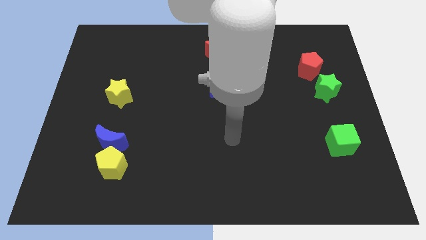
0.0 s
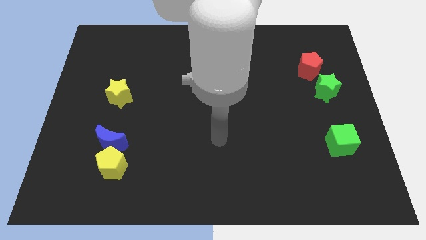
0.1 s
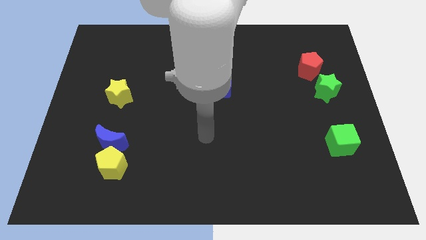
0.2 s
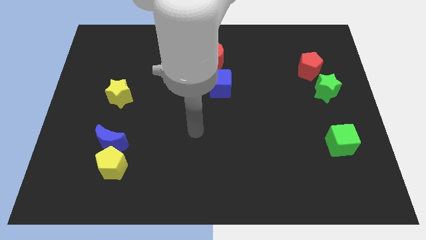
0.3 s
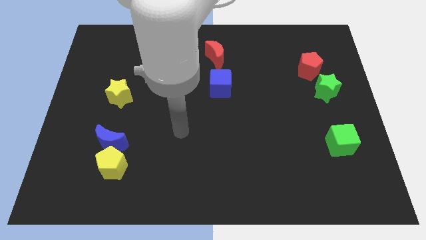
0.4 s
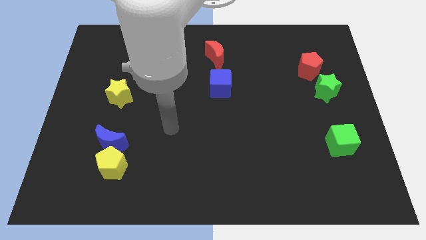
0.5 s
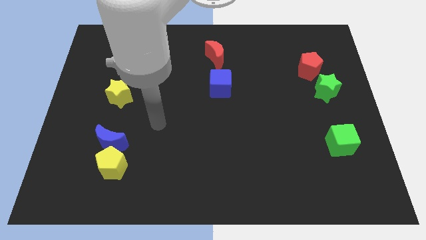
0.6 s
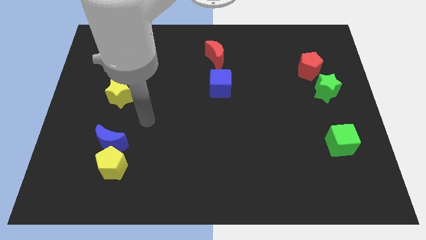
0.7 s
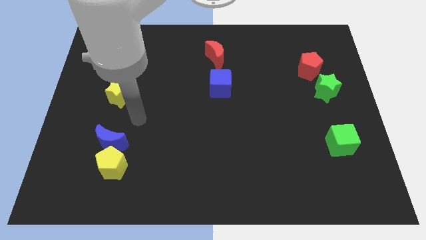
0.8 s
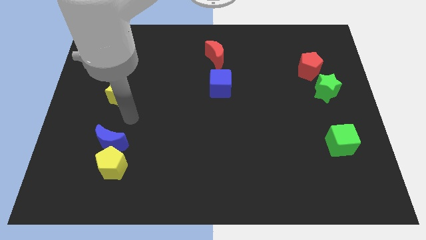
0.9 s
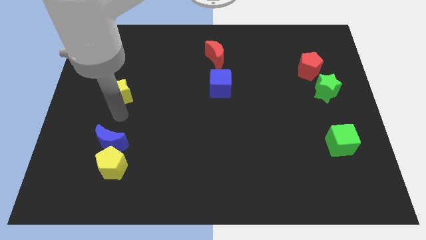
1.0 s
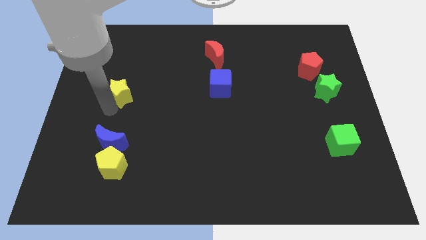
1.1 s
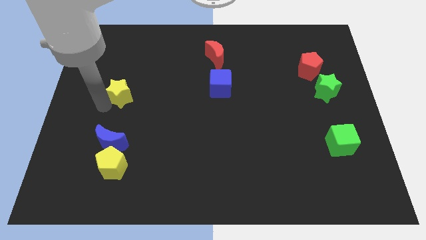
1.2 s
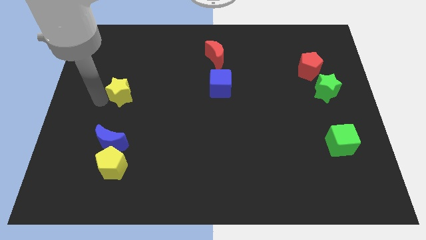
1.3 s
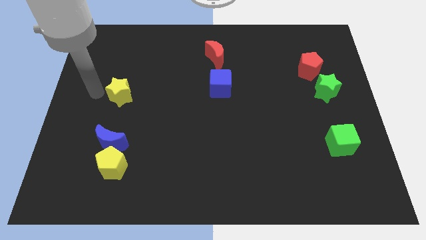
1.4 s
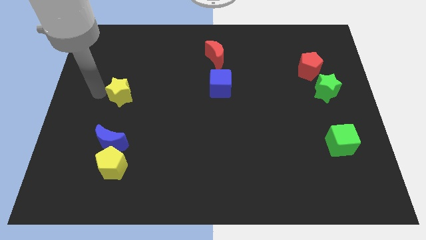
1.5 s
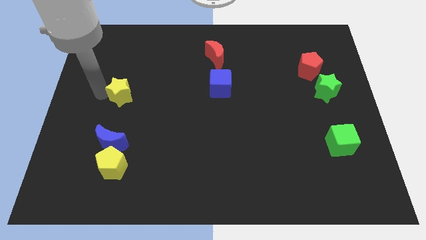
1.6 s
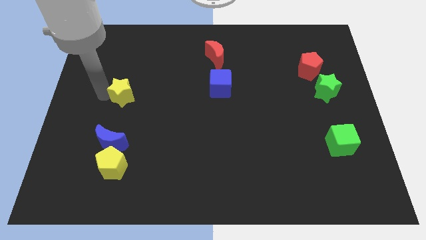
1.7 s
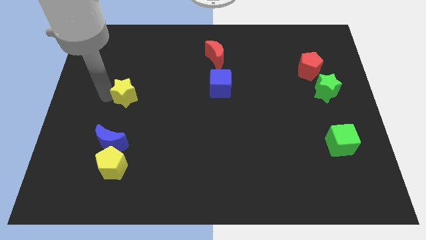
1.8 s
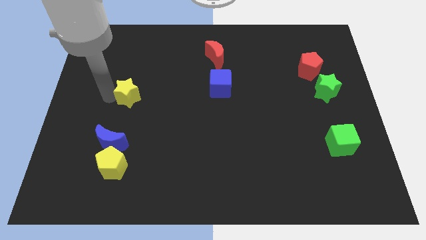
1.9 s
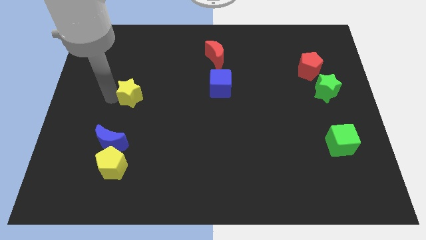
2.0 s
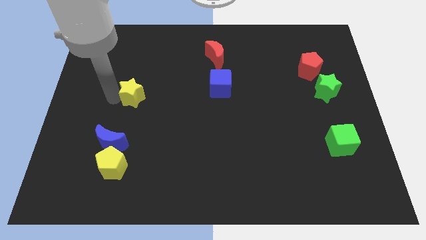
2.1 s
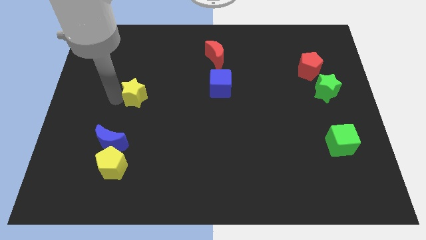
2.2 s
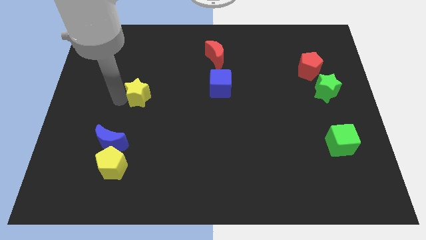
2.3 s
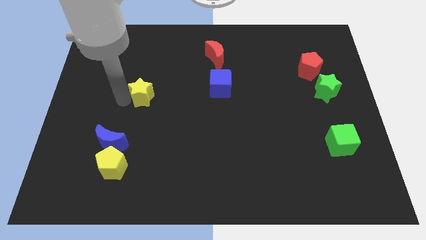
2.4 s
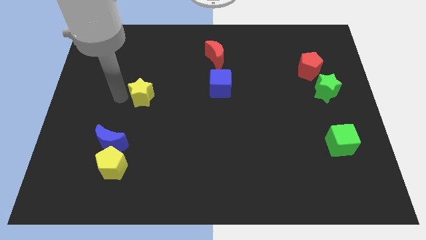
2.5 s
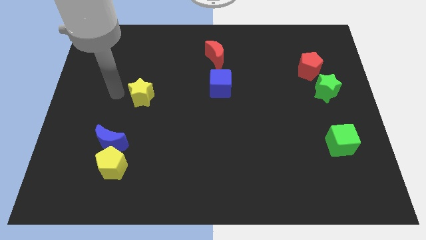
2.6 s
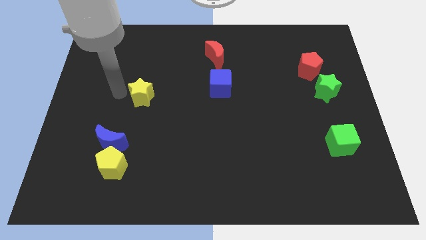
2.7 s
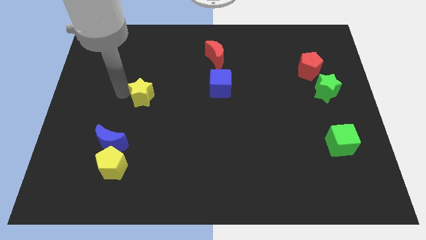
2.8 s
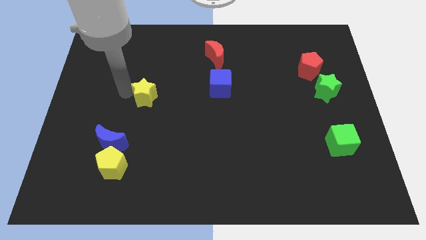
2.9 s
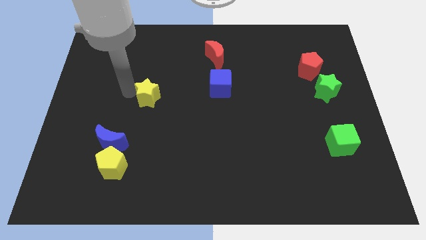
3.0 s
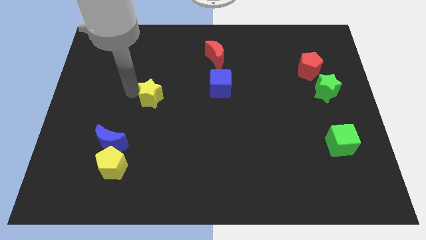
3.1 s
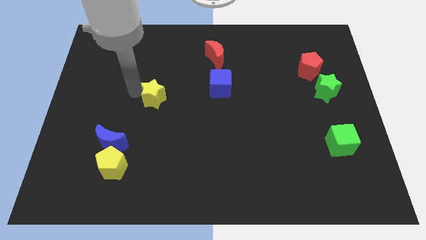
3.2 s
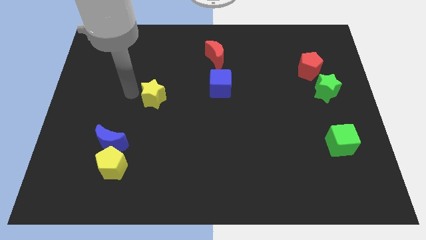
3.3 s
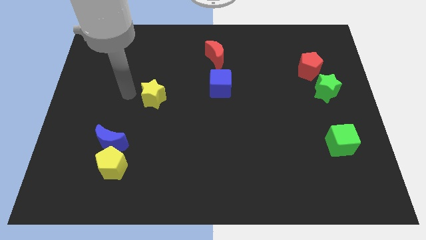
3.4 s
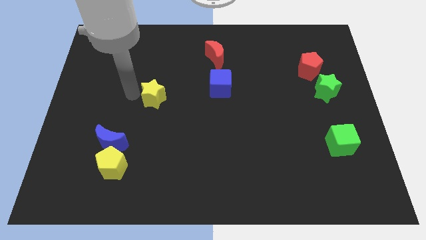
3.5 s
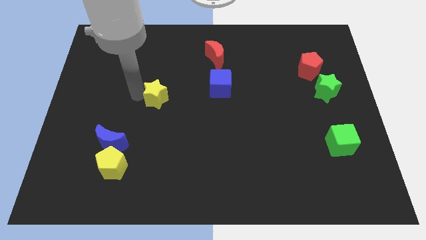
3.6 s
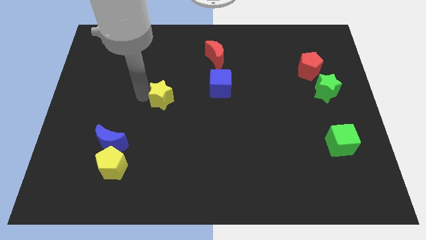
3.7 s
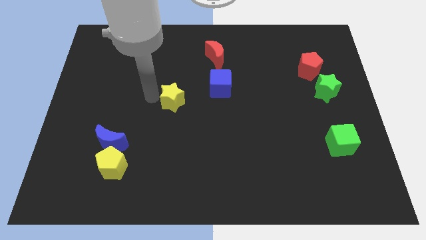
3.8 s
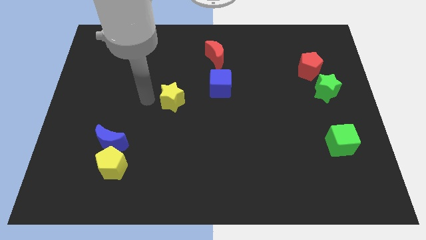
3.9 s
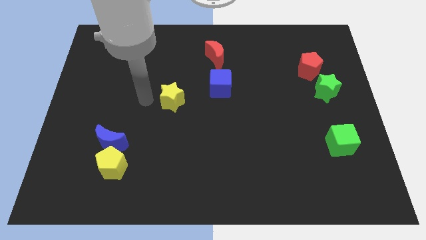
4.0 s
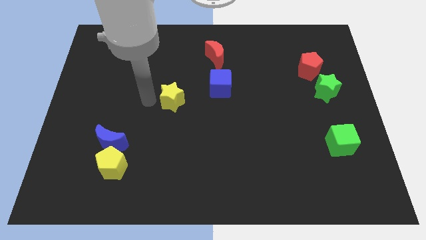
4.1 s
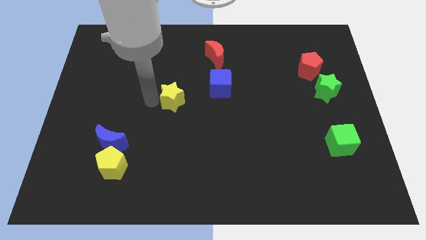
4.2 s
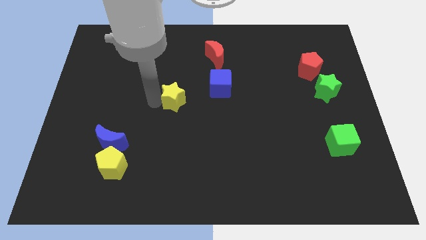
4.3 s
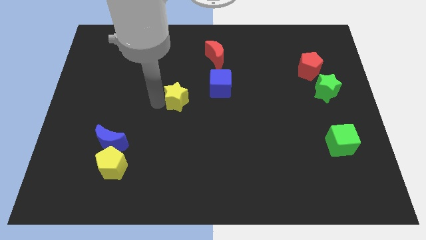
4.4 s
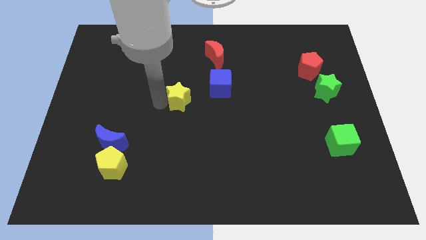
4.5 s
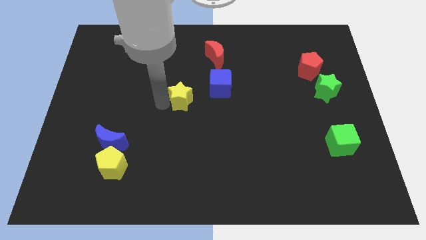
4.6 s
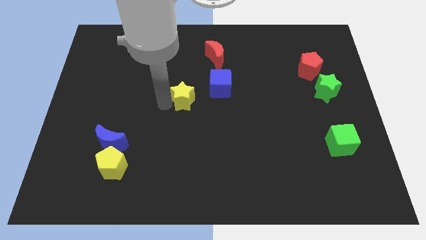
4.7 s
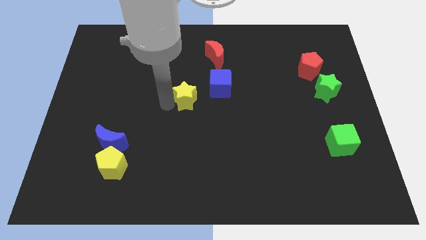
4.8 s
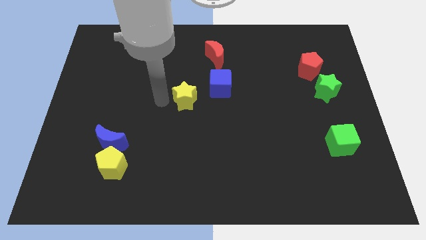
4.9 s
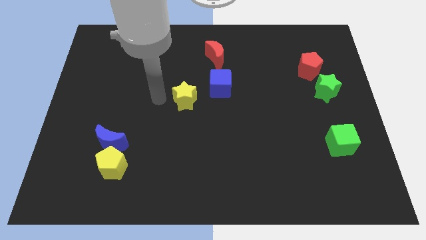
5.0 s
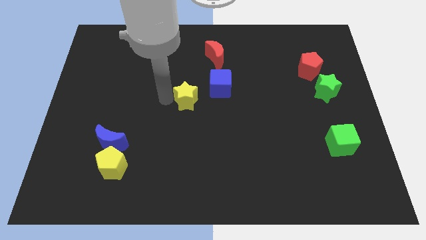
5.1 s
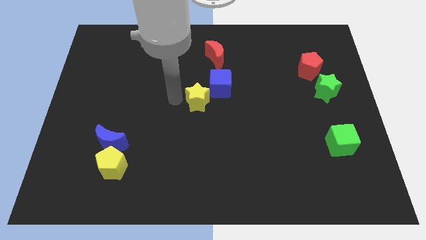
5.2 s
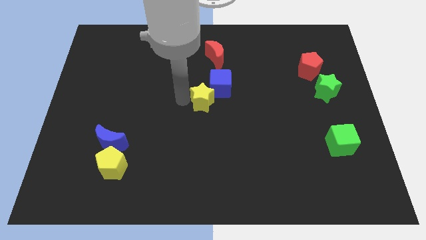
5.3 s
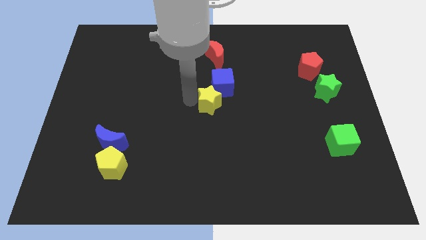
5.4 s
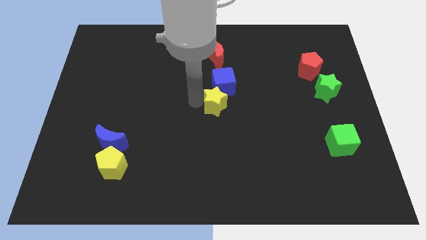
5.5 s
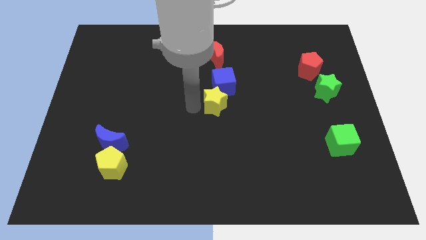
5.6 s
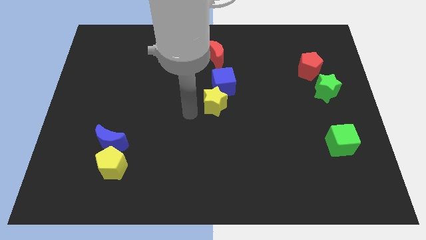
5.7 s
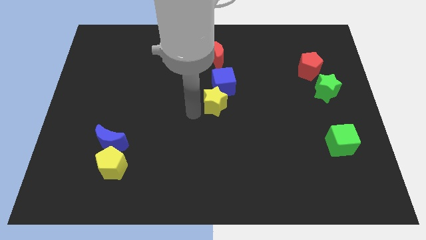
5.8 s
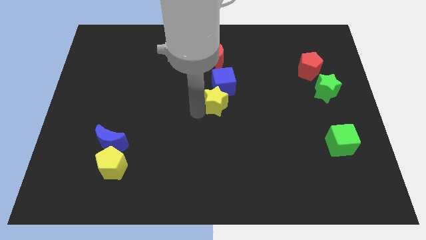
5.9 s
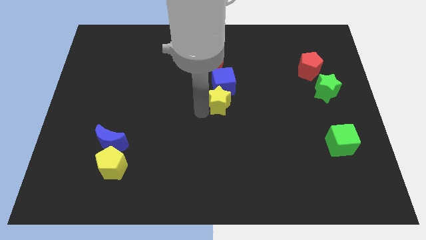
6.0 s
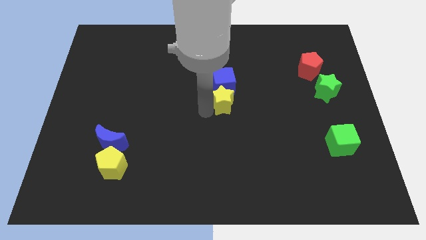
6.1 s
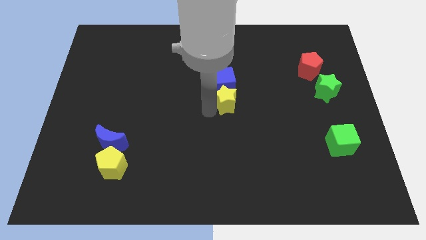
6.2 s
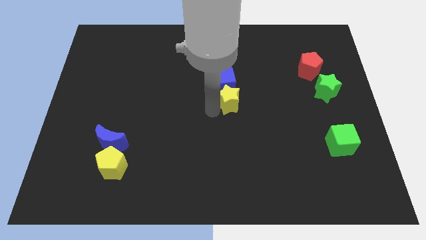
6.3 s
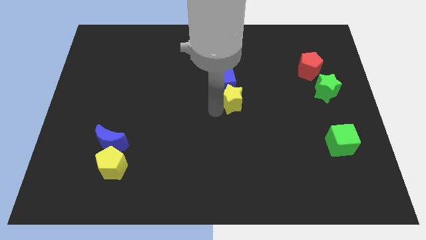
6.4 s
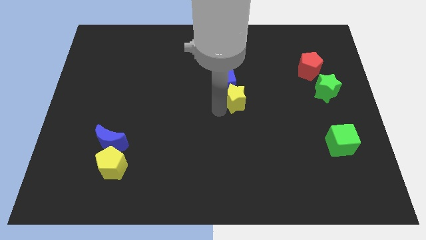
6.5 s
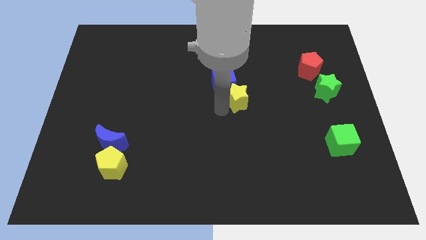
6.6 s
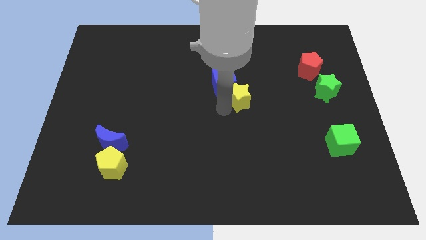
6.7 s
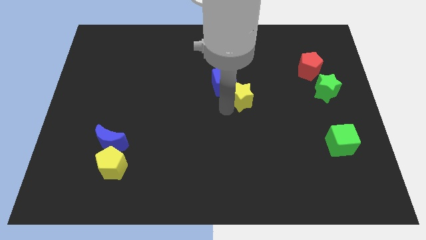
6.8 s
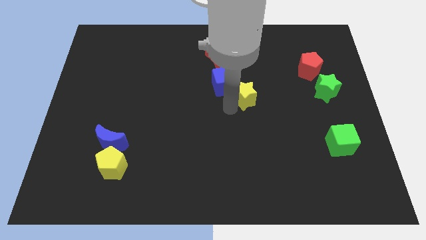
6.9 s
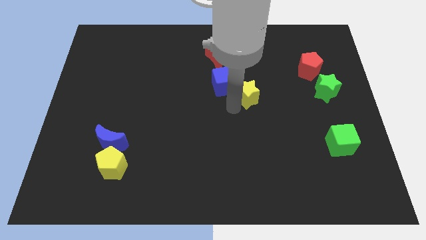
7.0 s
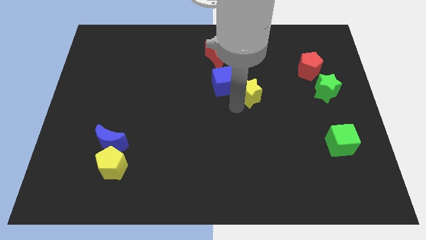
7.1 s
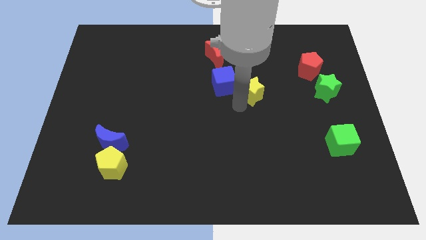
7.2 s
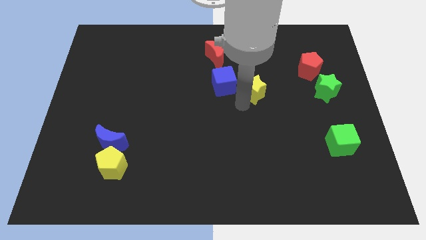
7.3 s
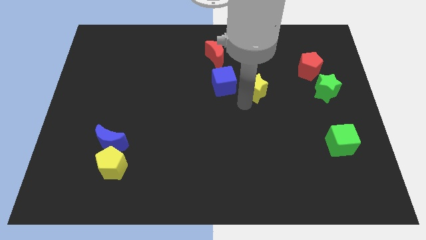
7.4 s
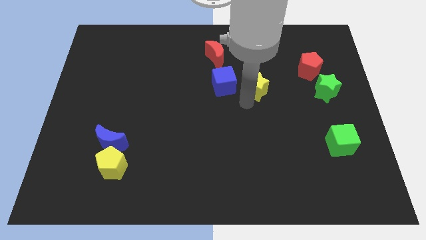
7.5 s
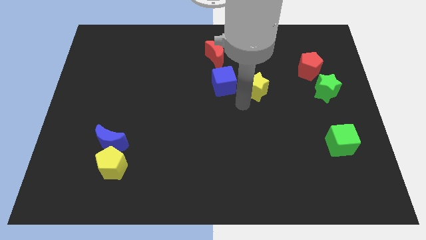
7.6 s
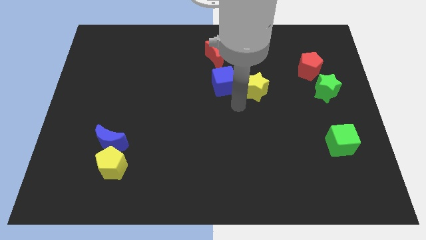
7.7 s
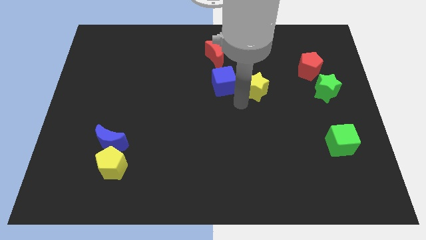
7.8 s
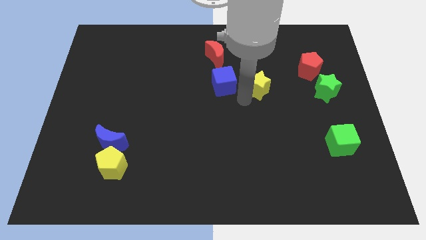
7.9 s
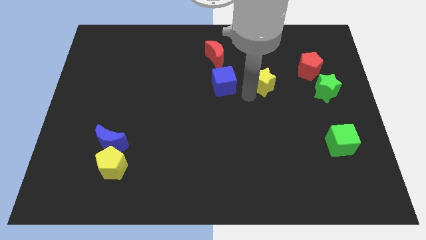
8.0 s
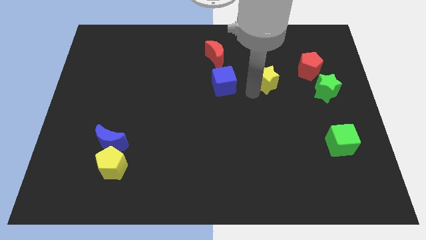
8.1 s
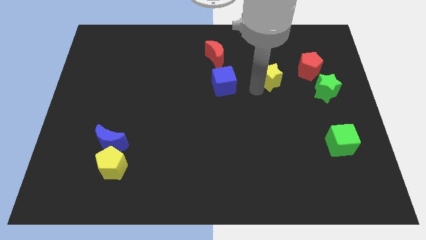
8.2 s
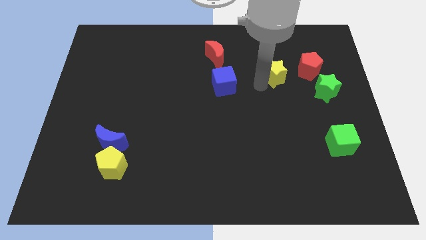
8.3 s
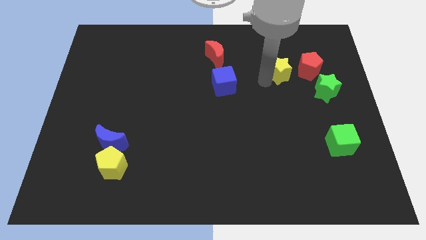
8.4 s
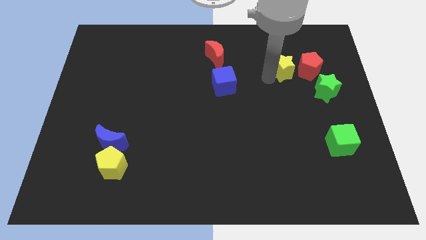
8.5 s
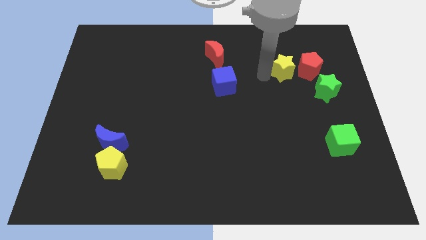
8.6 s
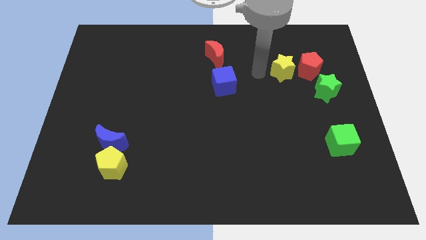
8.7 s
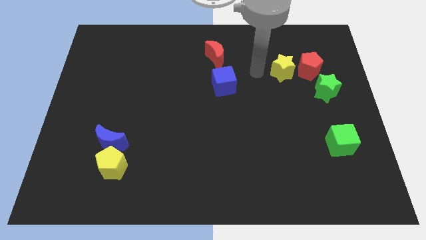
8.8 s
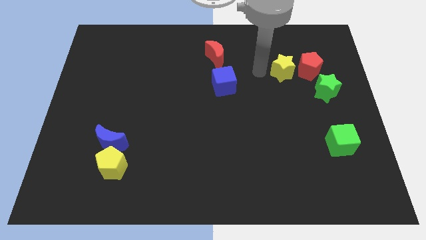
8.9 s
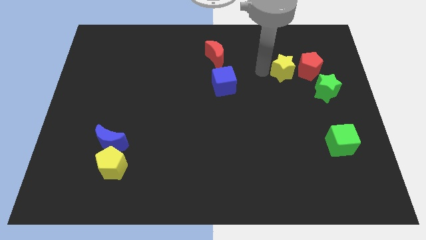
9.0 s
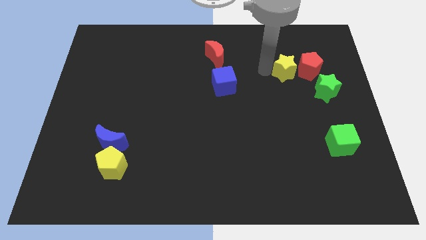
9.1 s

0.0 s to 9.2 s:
push the yellow star to the red pentagon
